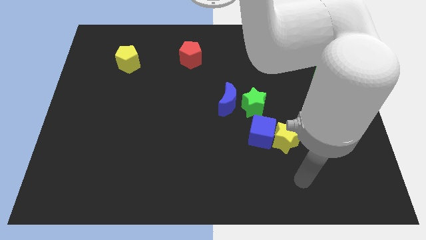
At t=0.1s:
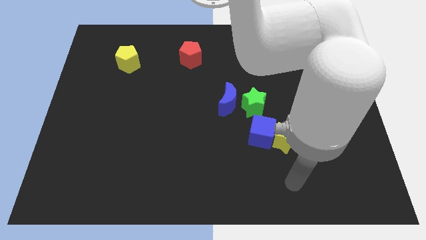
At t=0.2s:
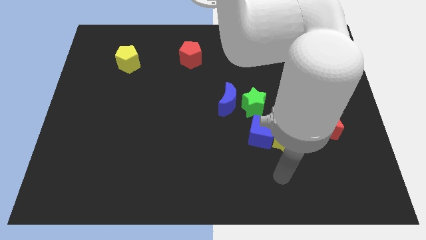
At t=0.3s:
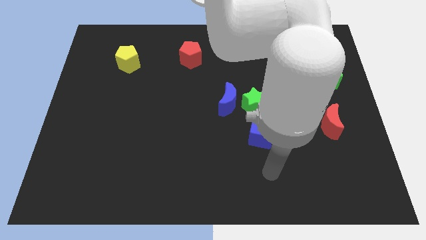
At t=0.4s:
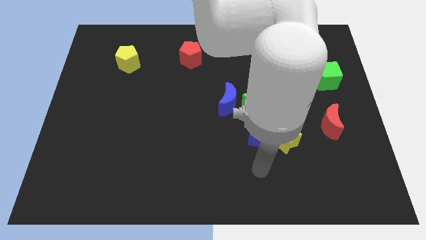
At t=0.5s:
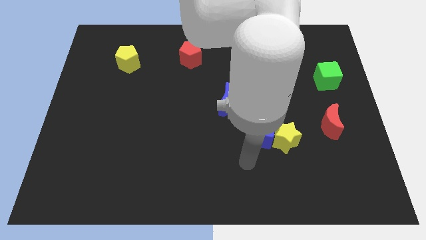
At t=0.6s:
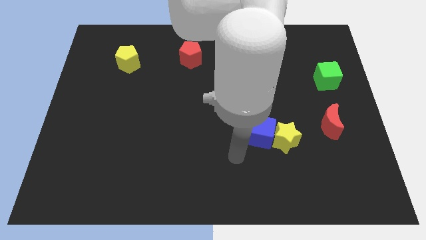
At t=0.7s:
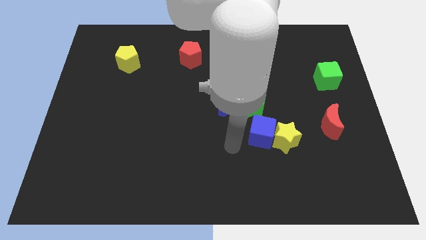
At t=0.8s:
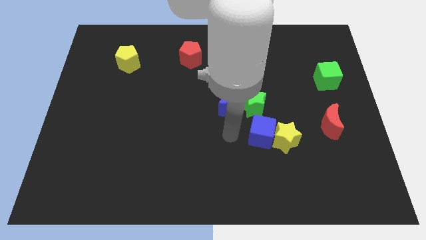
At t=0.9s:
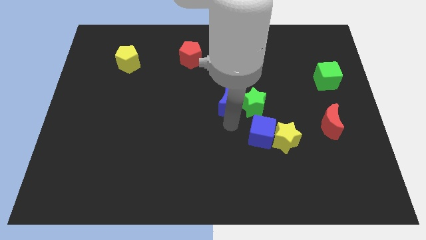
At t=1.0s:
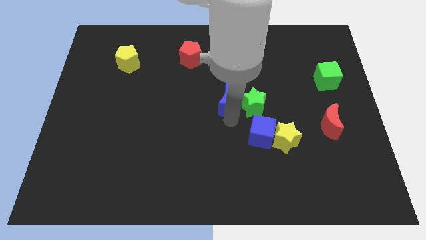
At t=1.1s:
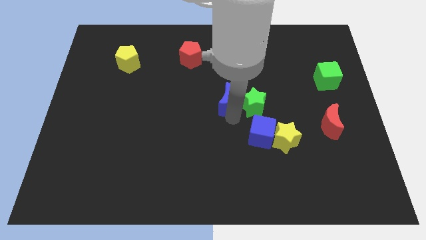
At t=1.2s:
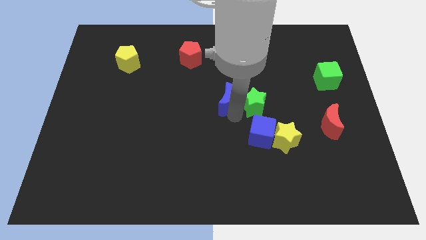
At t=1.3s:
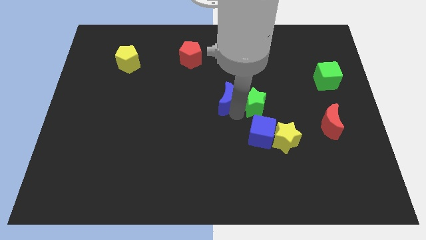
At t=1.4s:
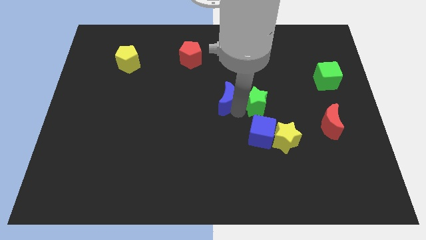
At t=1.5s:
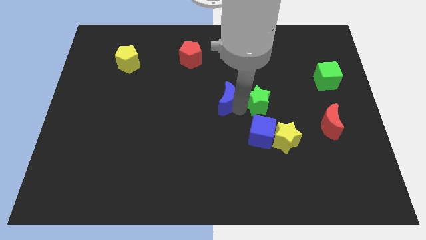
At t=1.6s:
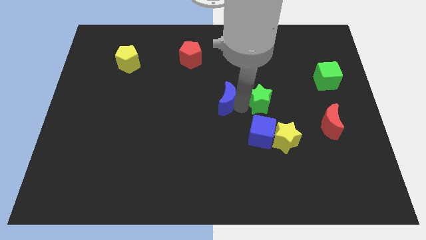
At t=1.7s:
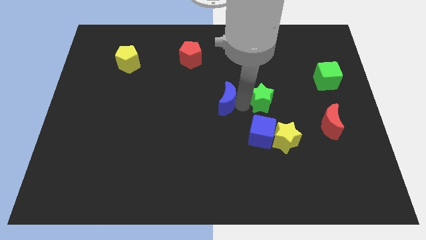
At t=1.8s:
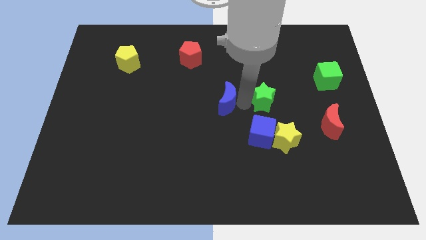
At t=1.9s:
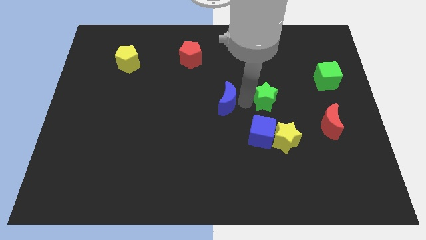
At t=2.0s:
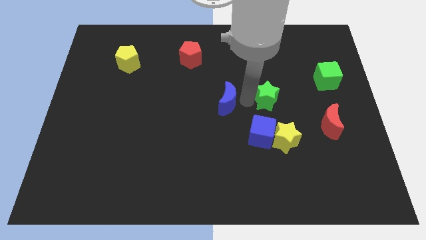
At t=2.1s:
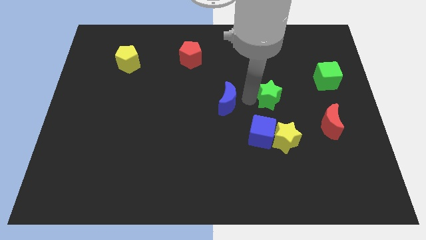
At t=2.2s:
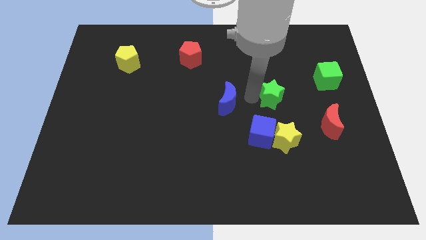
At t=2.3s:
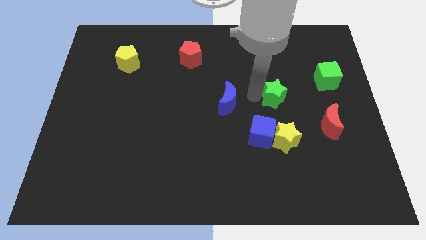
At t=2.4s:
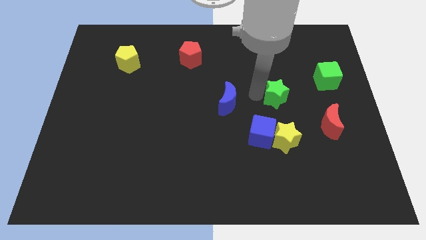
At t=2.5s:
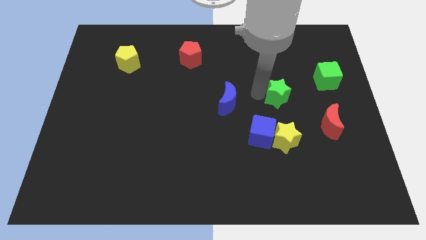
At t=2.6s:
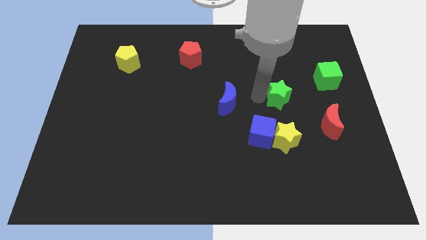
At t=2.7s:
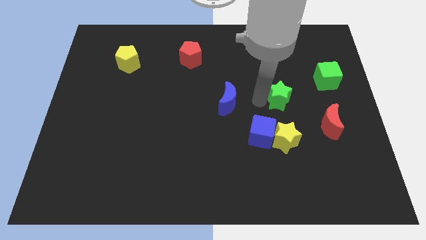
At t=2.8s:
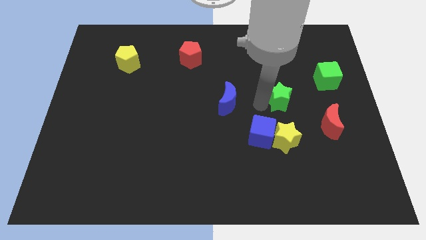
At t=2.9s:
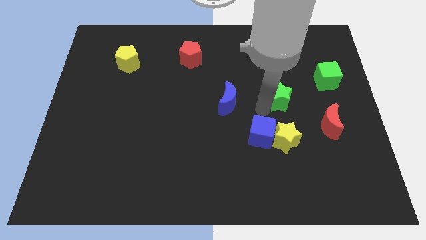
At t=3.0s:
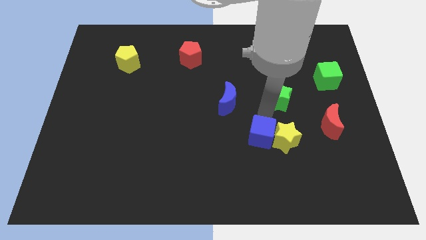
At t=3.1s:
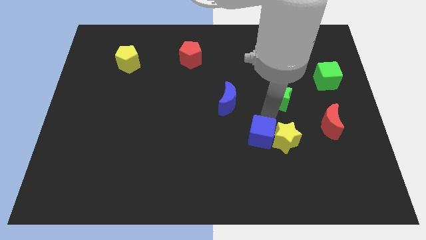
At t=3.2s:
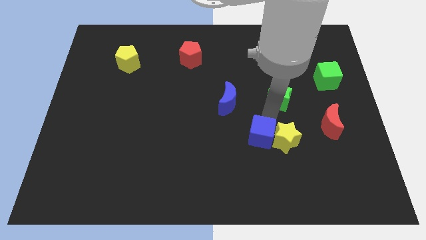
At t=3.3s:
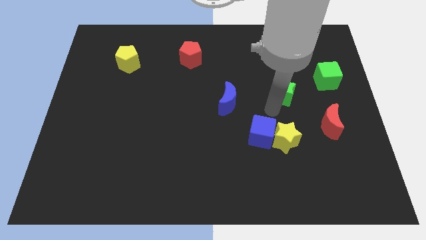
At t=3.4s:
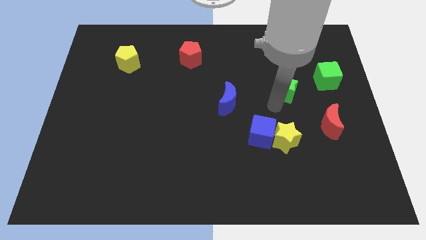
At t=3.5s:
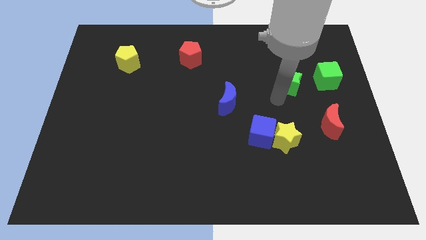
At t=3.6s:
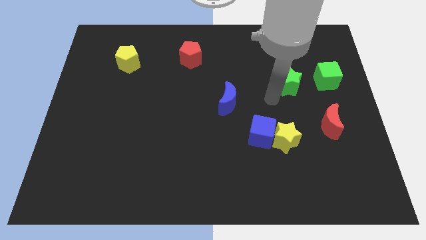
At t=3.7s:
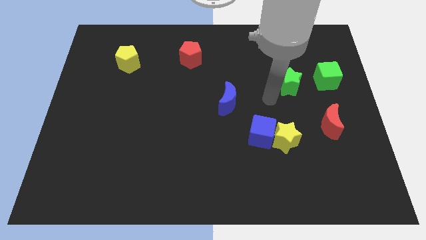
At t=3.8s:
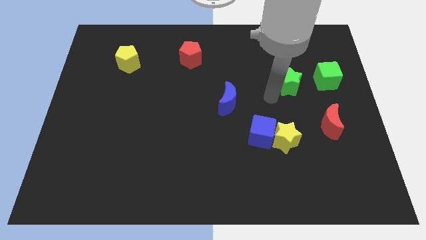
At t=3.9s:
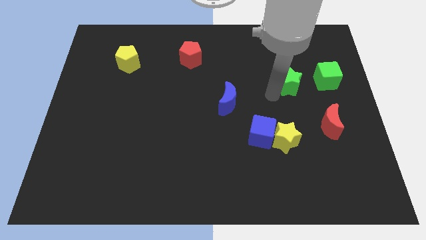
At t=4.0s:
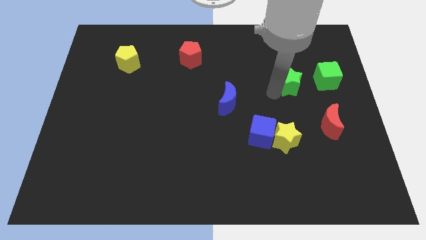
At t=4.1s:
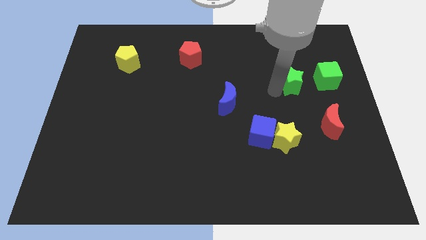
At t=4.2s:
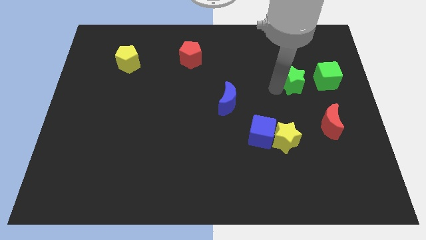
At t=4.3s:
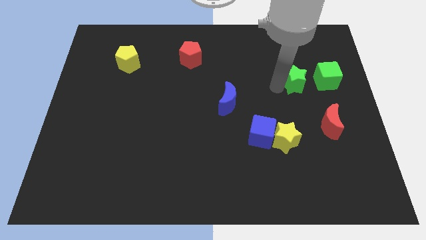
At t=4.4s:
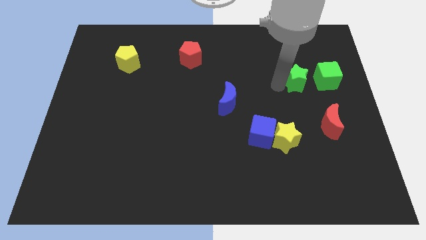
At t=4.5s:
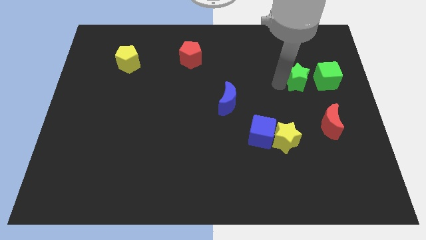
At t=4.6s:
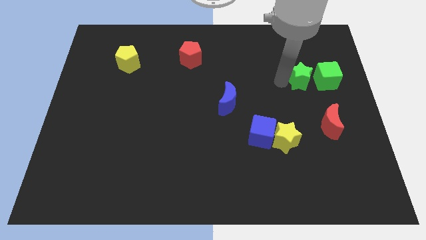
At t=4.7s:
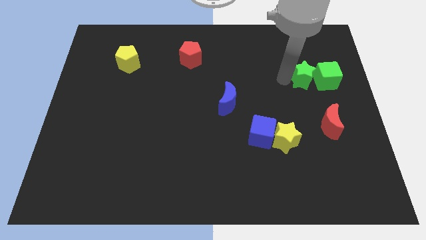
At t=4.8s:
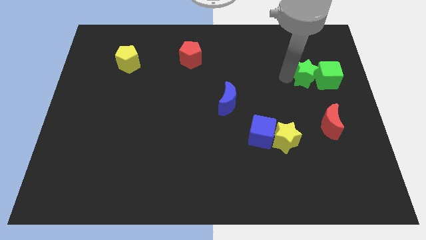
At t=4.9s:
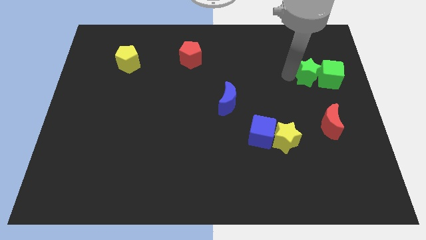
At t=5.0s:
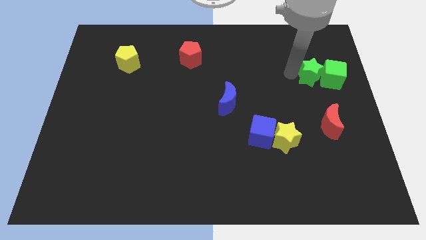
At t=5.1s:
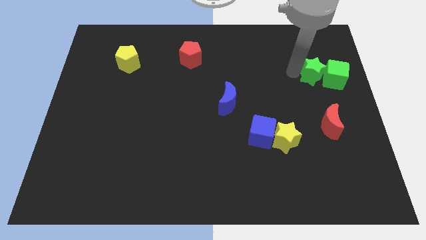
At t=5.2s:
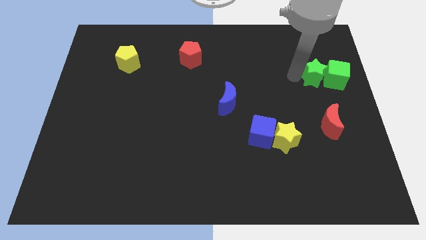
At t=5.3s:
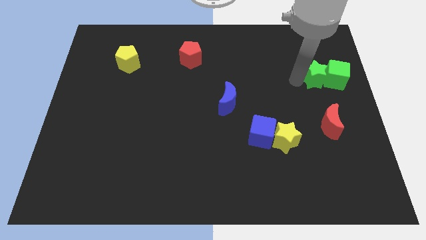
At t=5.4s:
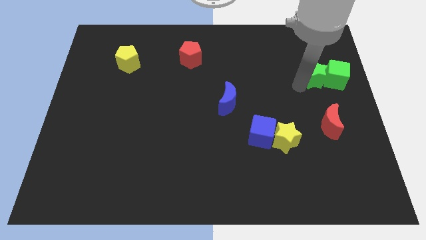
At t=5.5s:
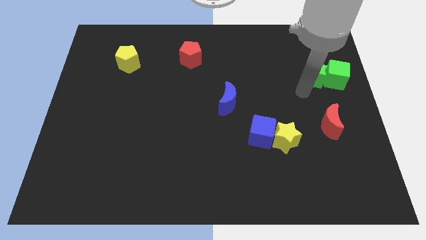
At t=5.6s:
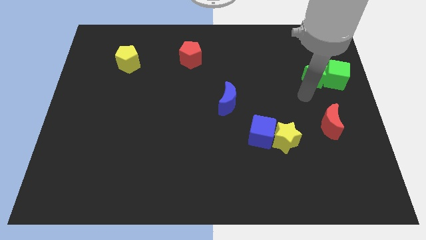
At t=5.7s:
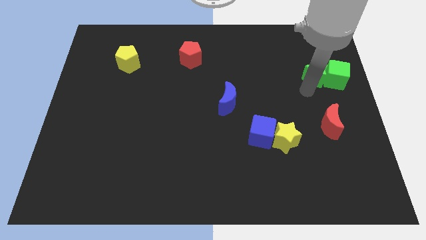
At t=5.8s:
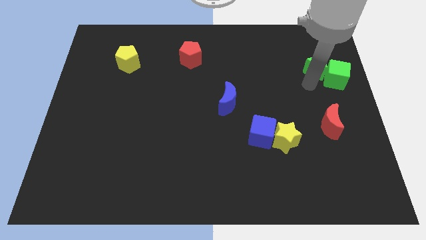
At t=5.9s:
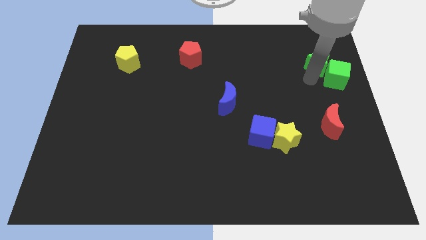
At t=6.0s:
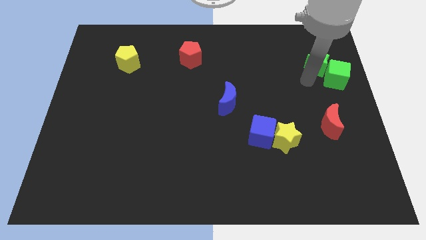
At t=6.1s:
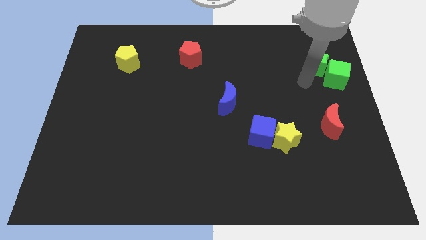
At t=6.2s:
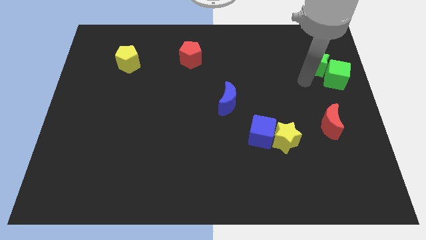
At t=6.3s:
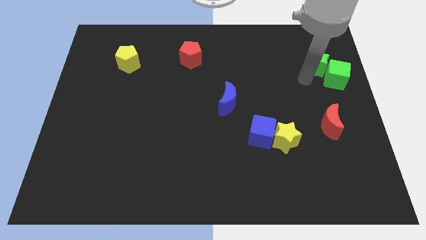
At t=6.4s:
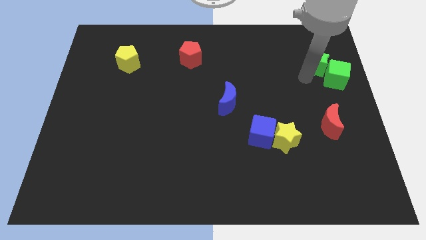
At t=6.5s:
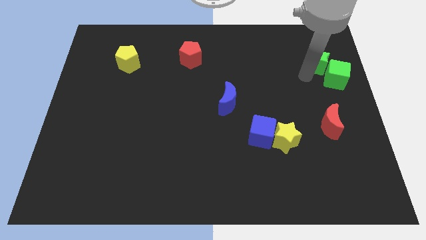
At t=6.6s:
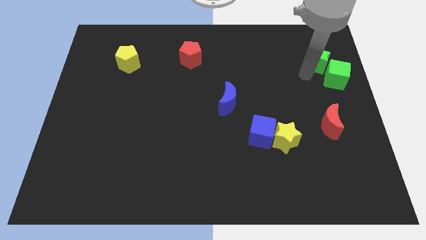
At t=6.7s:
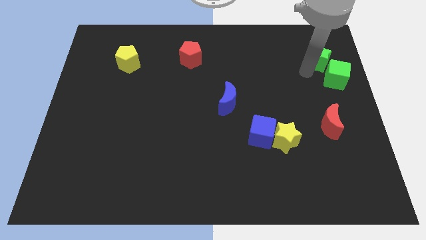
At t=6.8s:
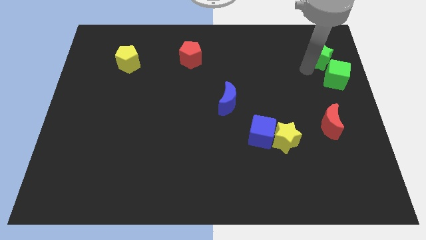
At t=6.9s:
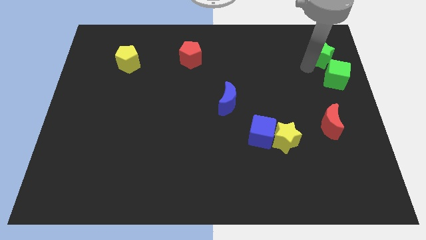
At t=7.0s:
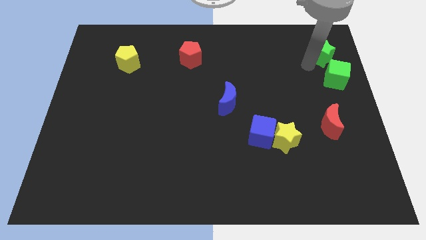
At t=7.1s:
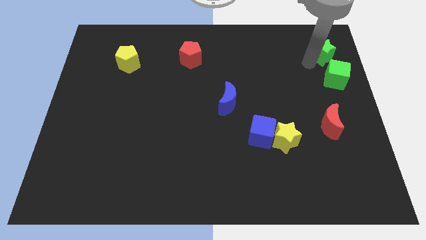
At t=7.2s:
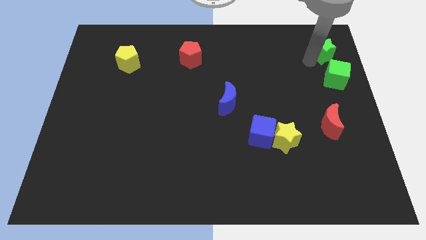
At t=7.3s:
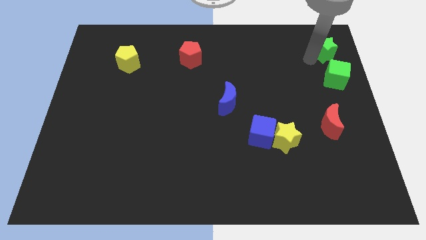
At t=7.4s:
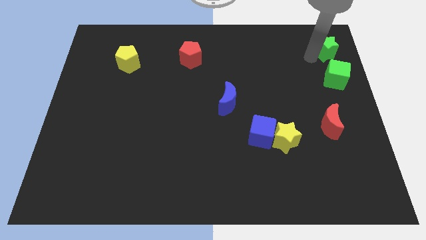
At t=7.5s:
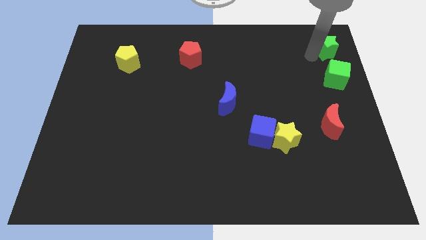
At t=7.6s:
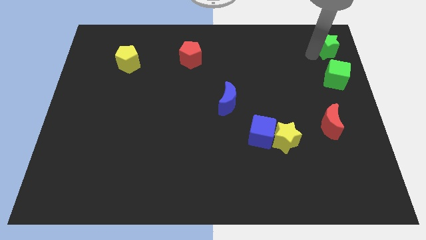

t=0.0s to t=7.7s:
put the green star to the top right corner
